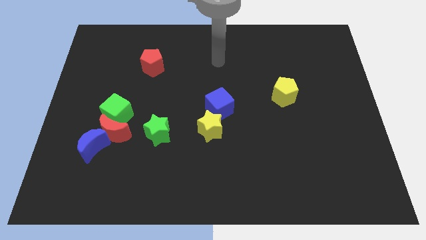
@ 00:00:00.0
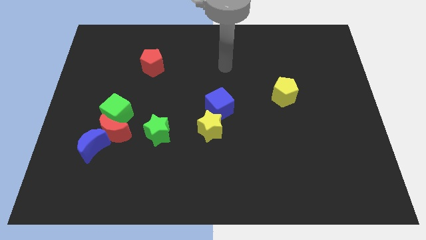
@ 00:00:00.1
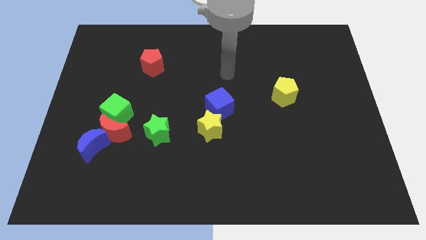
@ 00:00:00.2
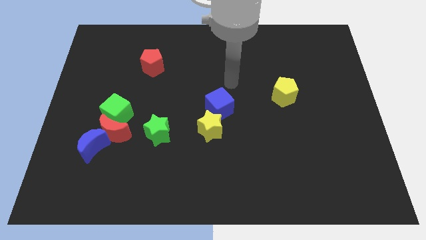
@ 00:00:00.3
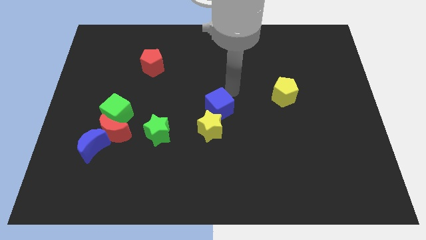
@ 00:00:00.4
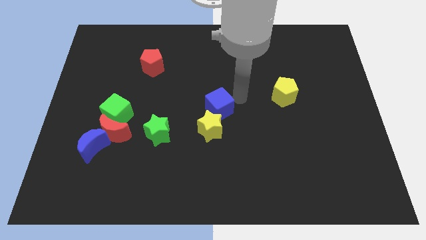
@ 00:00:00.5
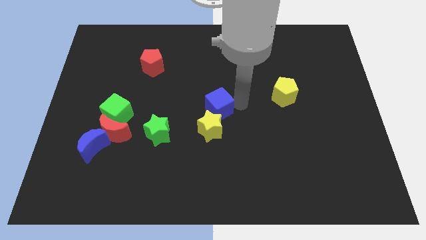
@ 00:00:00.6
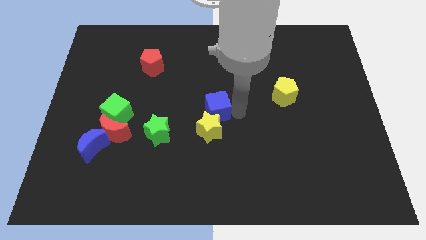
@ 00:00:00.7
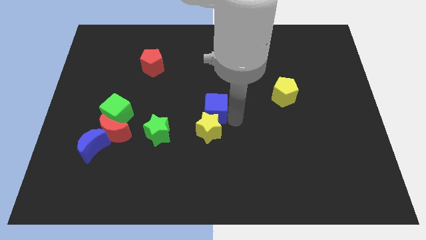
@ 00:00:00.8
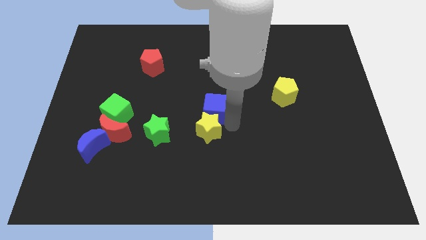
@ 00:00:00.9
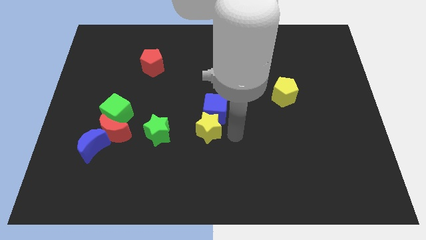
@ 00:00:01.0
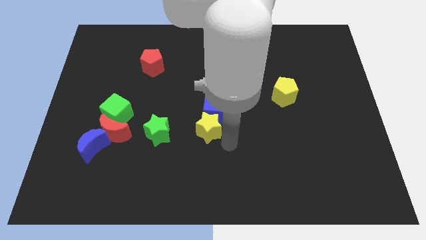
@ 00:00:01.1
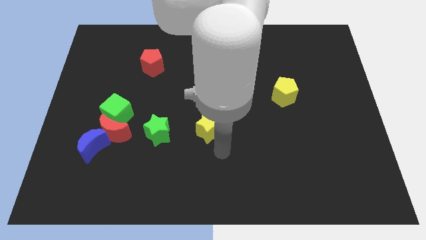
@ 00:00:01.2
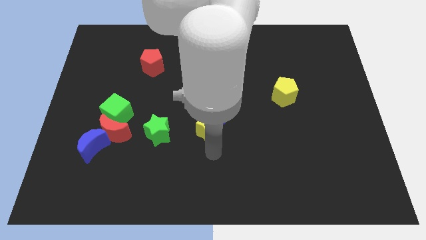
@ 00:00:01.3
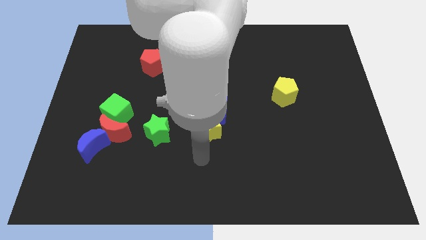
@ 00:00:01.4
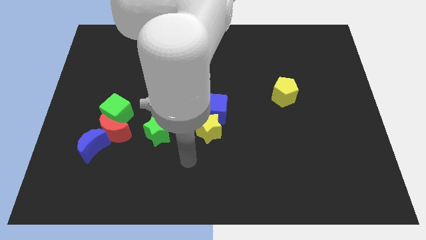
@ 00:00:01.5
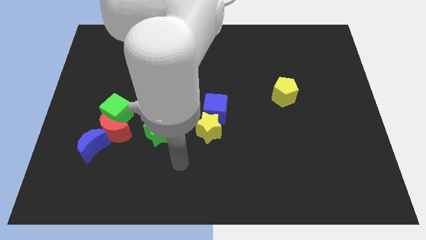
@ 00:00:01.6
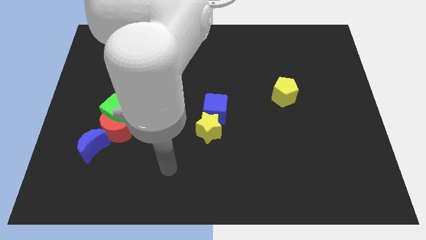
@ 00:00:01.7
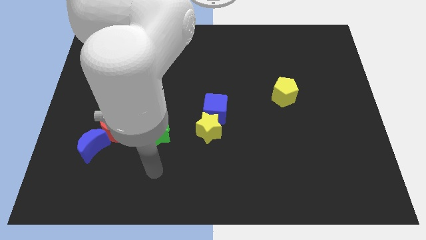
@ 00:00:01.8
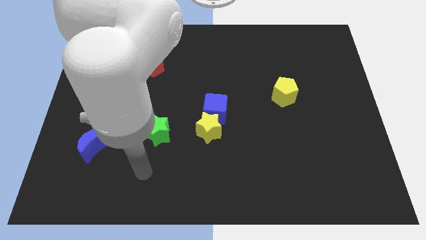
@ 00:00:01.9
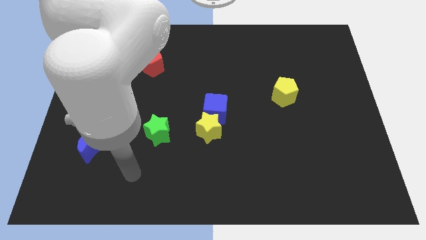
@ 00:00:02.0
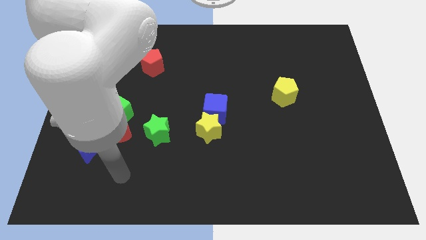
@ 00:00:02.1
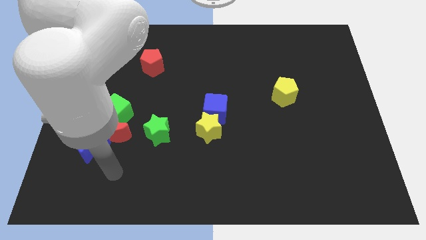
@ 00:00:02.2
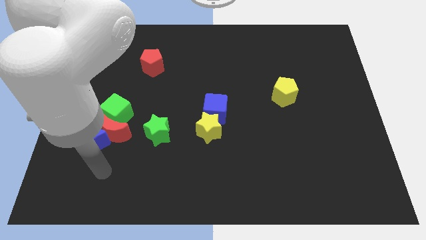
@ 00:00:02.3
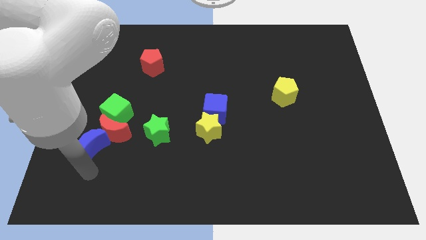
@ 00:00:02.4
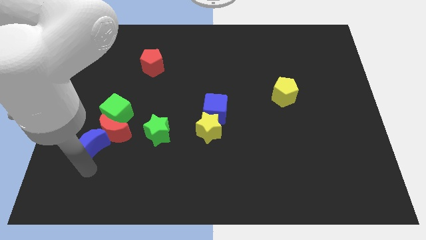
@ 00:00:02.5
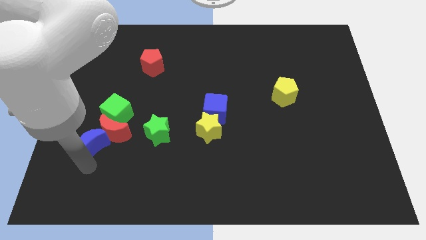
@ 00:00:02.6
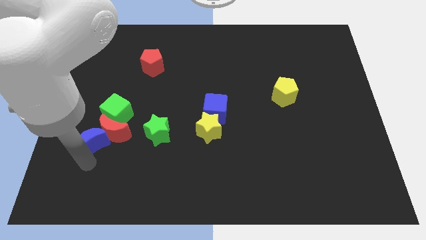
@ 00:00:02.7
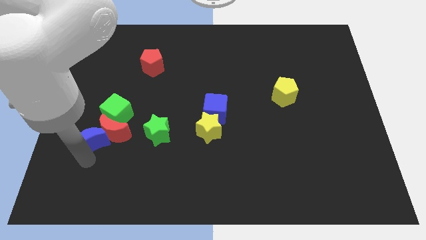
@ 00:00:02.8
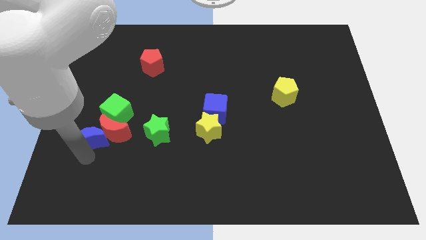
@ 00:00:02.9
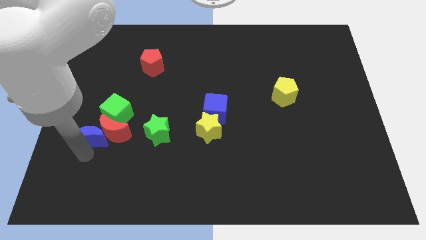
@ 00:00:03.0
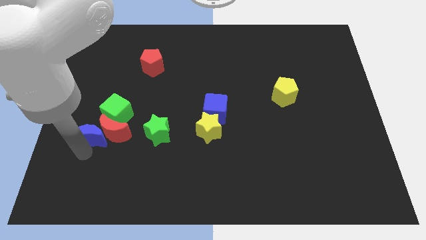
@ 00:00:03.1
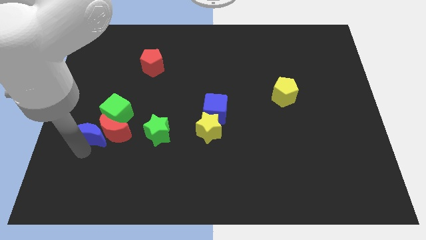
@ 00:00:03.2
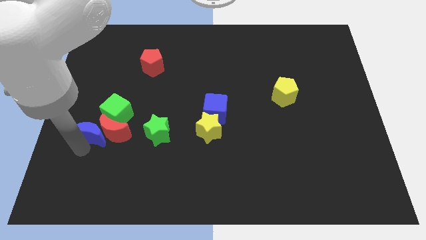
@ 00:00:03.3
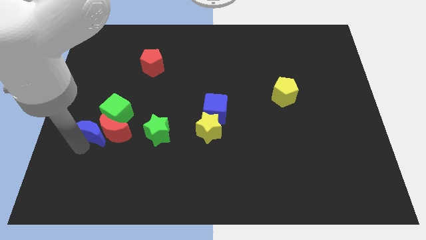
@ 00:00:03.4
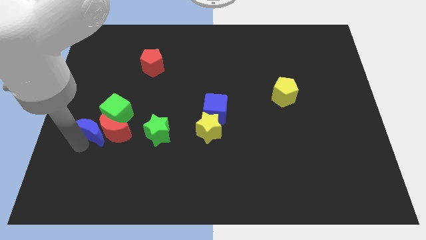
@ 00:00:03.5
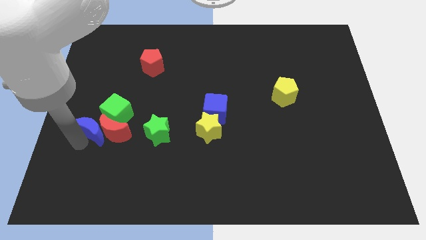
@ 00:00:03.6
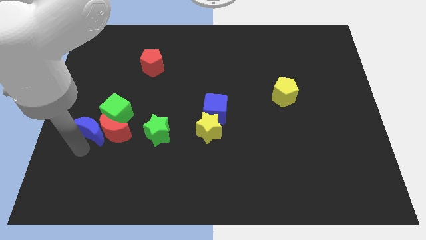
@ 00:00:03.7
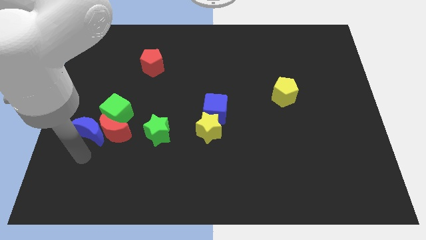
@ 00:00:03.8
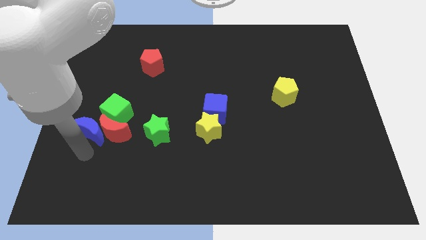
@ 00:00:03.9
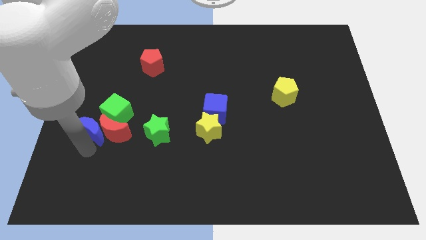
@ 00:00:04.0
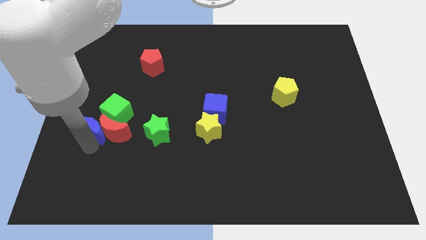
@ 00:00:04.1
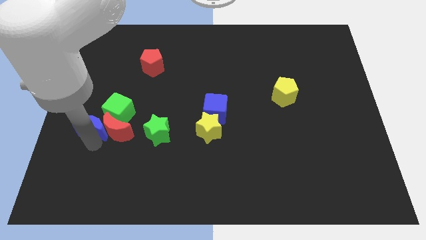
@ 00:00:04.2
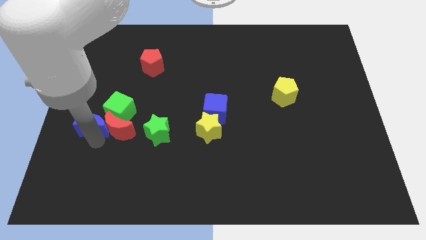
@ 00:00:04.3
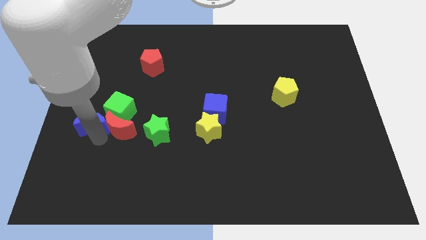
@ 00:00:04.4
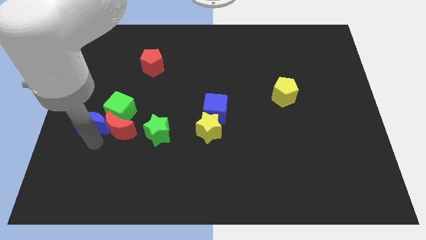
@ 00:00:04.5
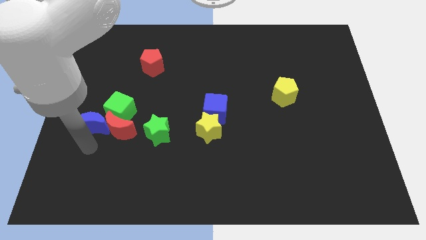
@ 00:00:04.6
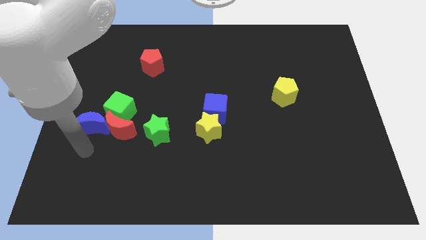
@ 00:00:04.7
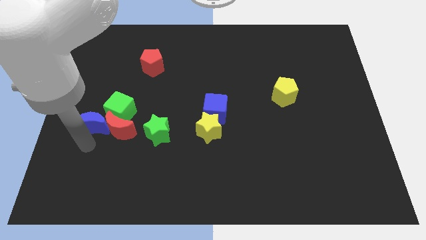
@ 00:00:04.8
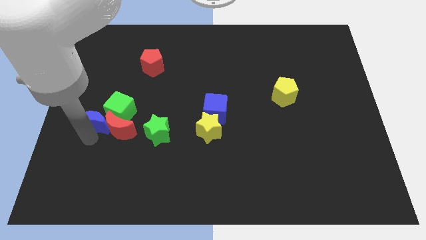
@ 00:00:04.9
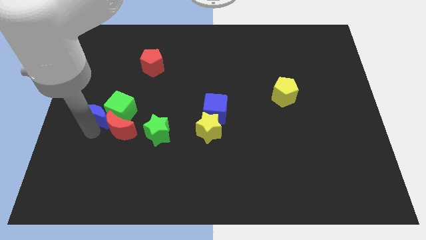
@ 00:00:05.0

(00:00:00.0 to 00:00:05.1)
slide the blue moon upwards a bit

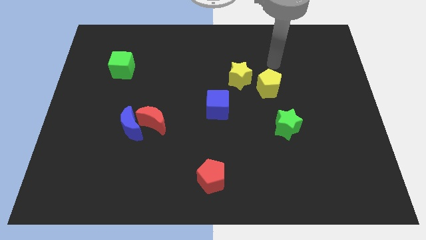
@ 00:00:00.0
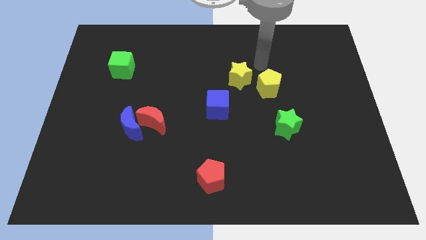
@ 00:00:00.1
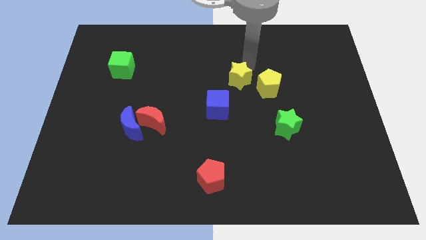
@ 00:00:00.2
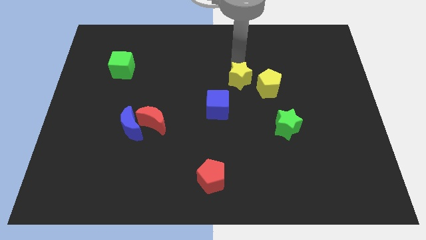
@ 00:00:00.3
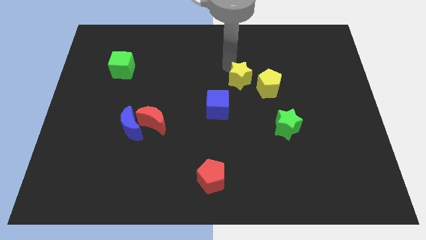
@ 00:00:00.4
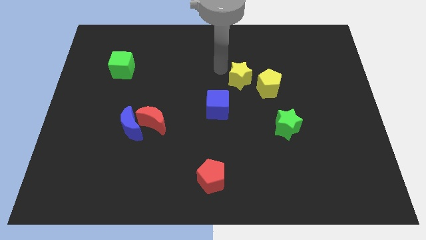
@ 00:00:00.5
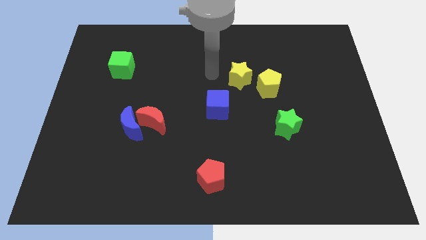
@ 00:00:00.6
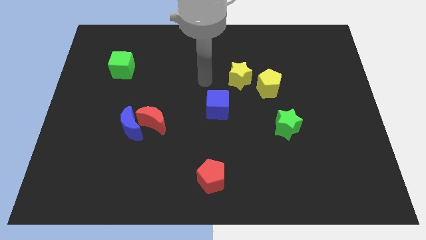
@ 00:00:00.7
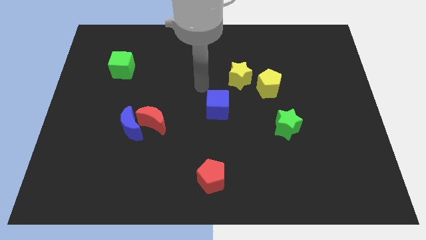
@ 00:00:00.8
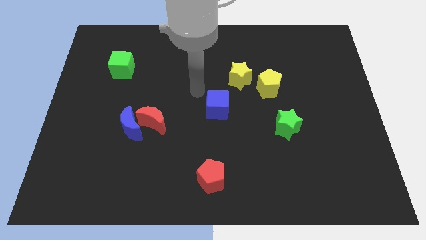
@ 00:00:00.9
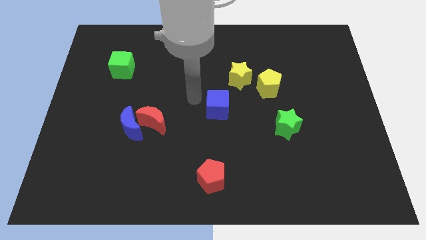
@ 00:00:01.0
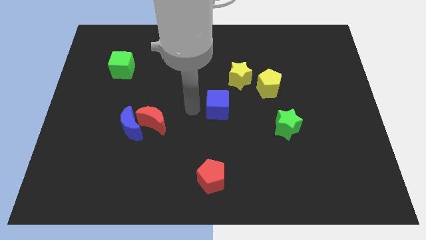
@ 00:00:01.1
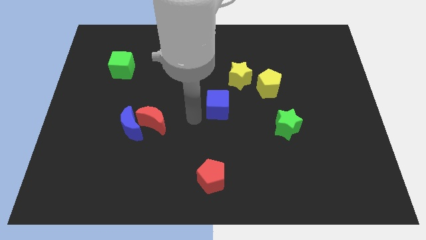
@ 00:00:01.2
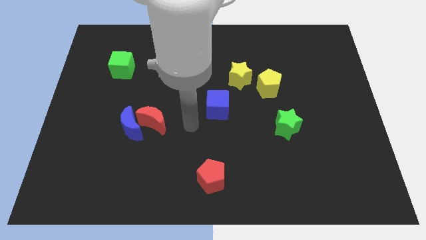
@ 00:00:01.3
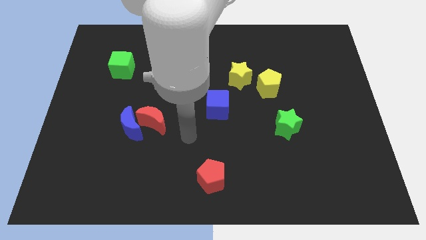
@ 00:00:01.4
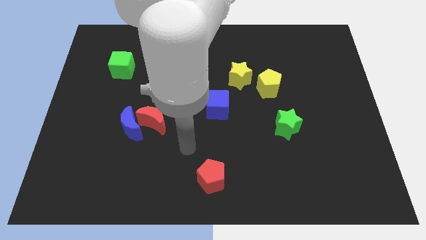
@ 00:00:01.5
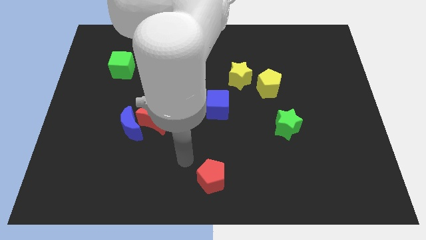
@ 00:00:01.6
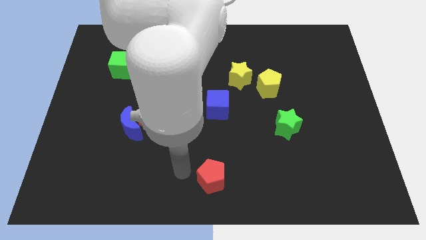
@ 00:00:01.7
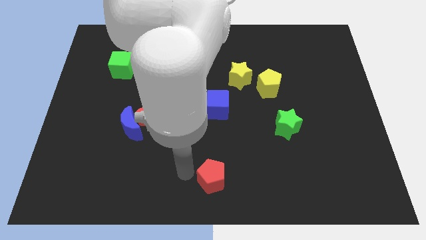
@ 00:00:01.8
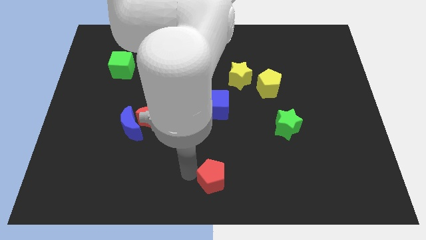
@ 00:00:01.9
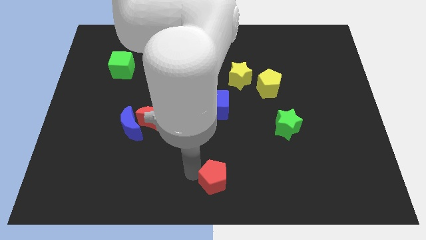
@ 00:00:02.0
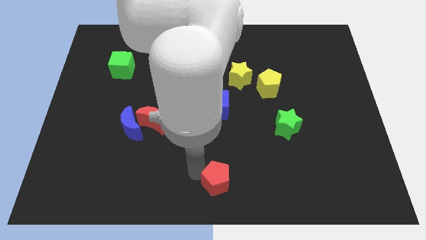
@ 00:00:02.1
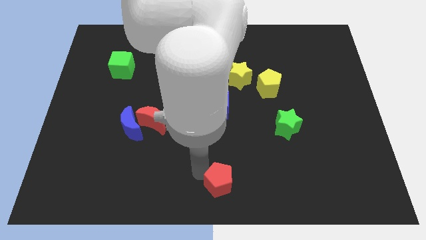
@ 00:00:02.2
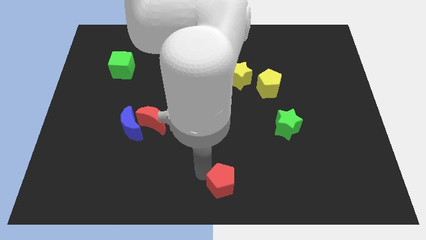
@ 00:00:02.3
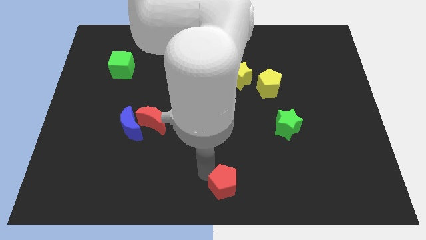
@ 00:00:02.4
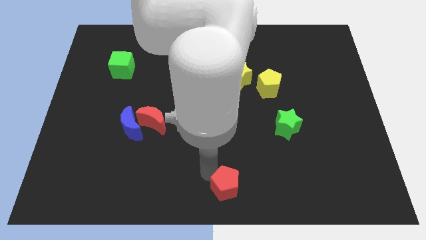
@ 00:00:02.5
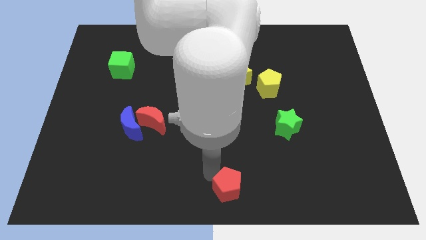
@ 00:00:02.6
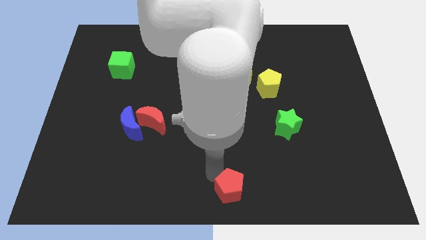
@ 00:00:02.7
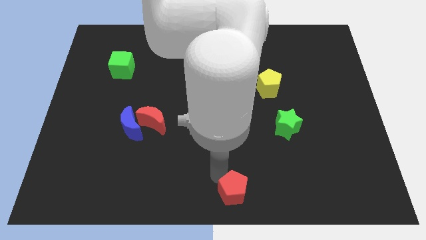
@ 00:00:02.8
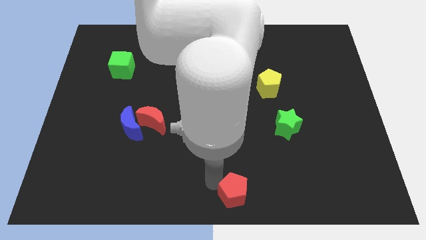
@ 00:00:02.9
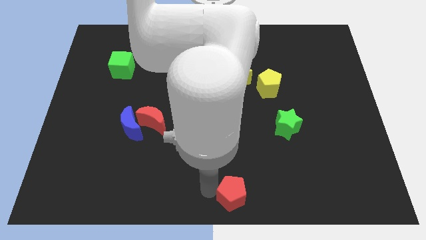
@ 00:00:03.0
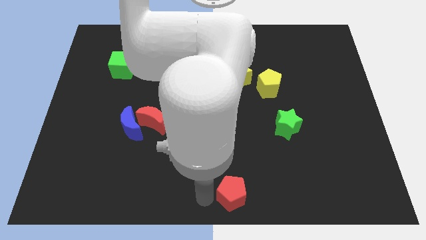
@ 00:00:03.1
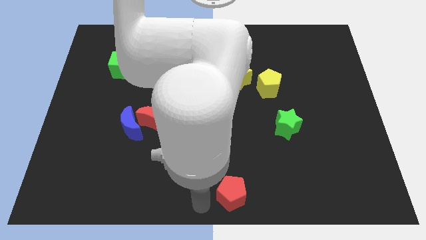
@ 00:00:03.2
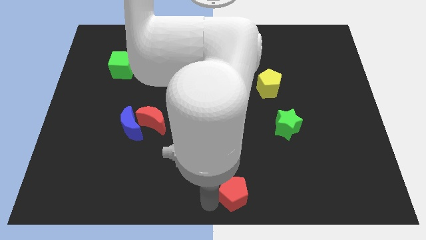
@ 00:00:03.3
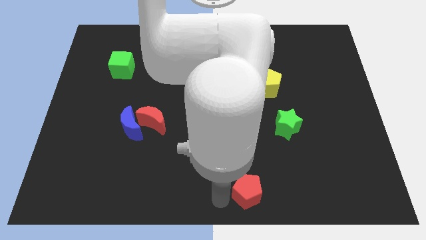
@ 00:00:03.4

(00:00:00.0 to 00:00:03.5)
move the red pentagon right slightly
